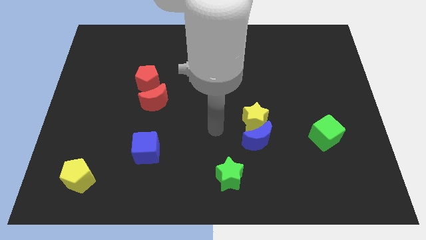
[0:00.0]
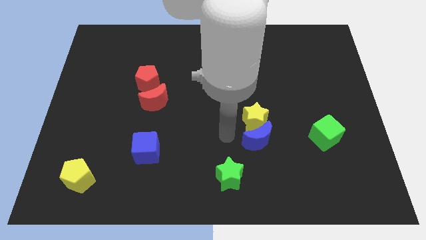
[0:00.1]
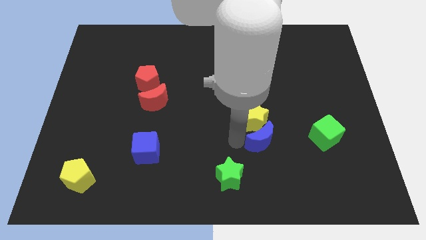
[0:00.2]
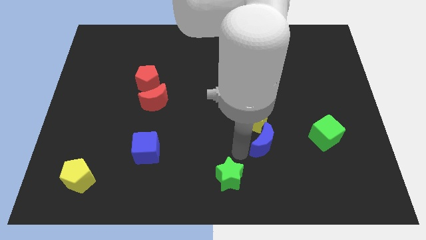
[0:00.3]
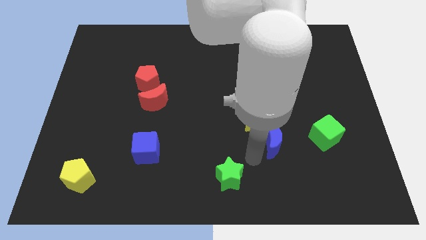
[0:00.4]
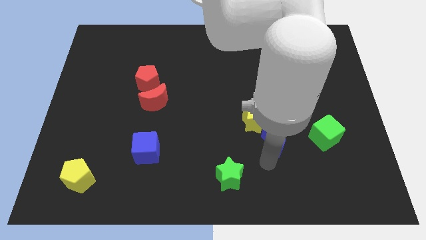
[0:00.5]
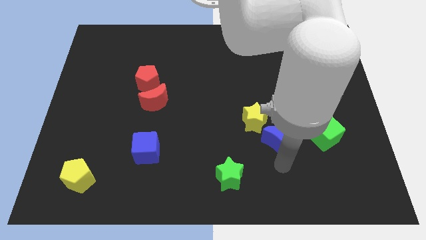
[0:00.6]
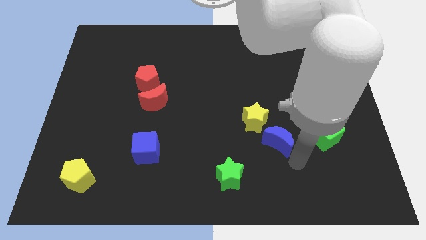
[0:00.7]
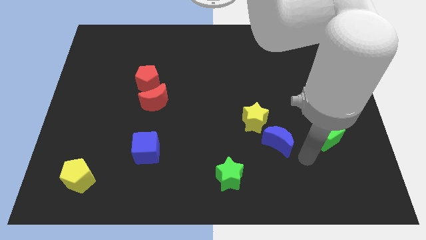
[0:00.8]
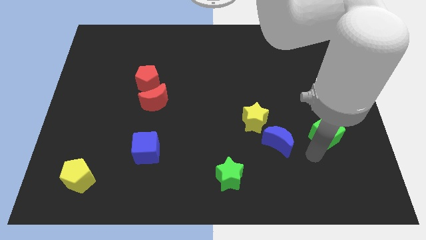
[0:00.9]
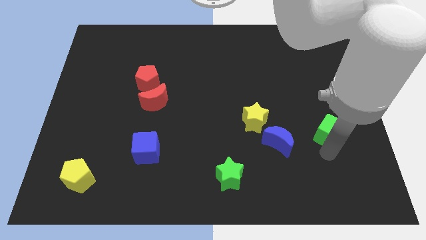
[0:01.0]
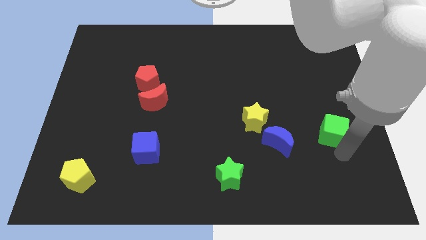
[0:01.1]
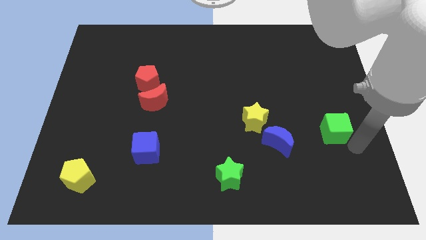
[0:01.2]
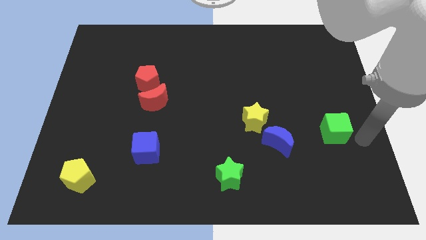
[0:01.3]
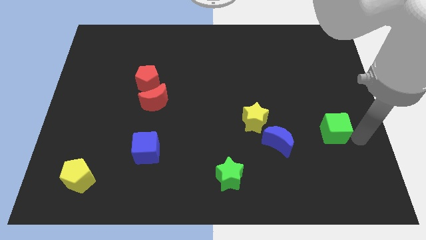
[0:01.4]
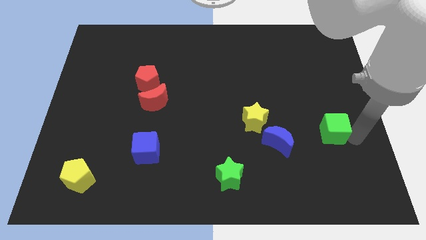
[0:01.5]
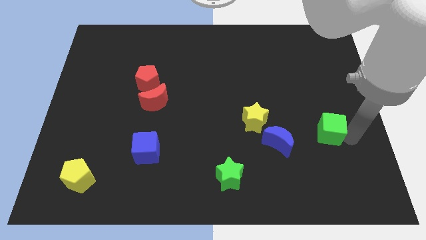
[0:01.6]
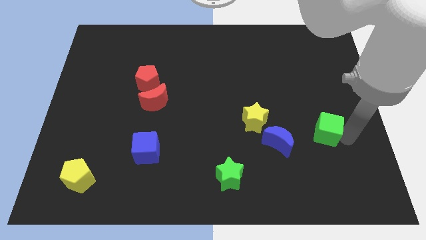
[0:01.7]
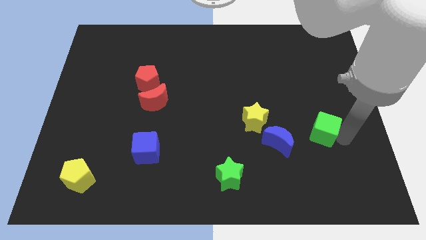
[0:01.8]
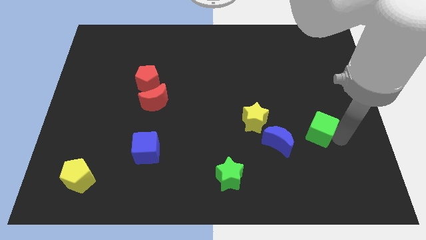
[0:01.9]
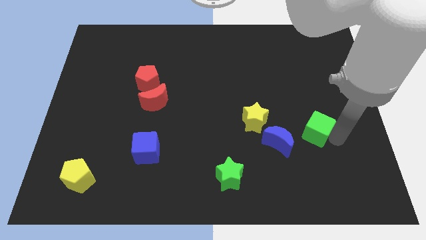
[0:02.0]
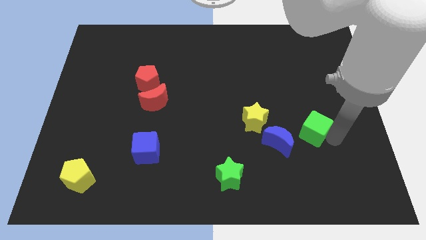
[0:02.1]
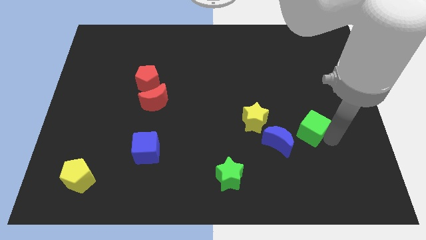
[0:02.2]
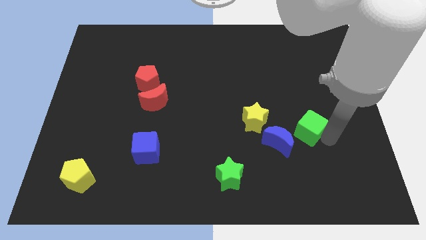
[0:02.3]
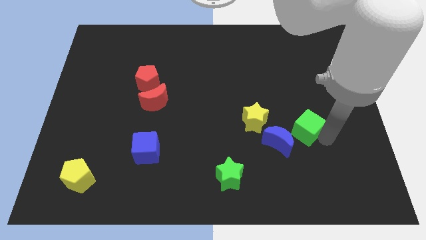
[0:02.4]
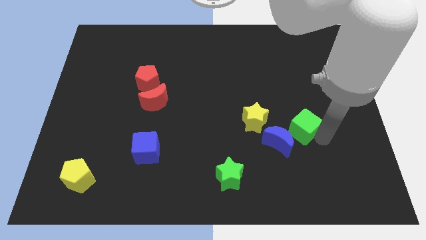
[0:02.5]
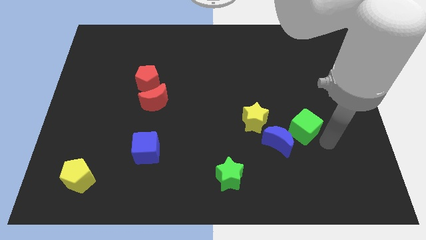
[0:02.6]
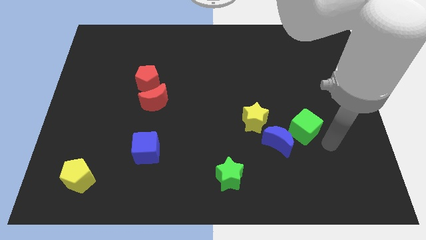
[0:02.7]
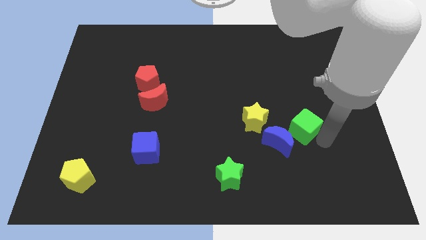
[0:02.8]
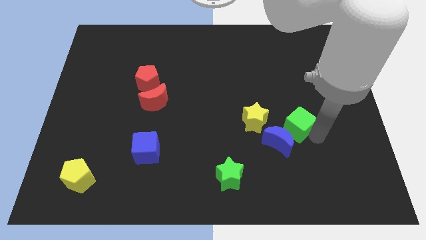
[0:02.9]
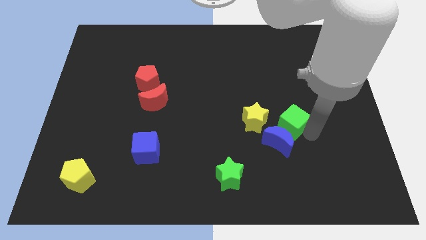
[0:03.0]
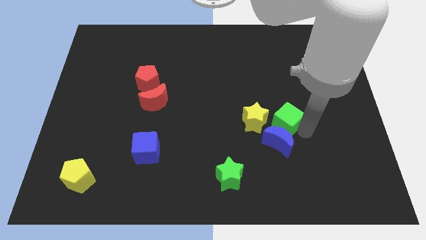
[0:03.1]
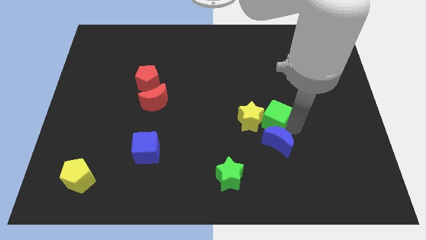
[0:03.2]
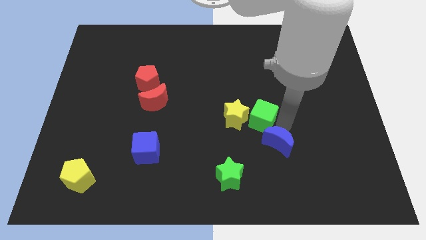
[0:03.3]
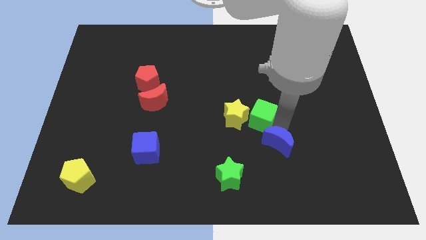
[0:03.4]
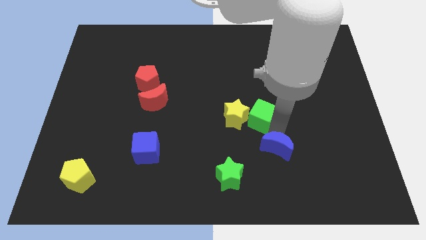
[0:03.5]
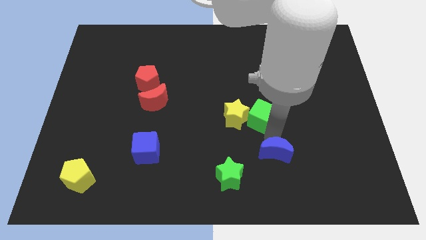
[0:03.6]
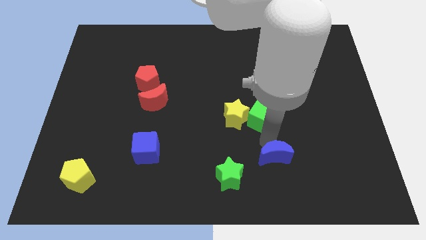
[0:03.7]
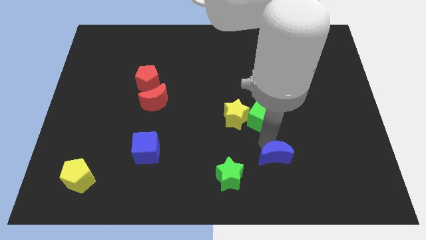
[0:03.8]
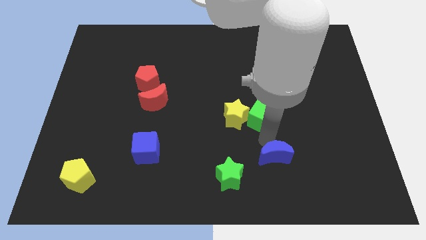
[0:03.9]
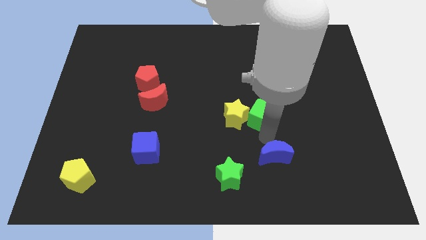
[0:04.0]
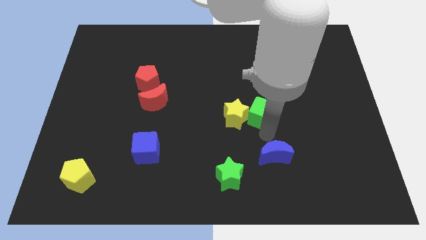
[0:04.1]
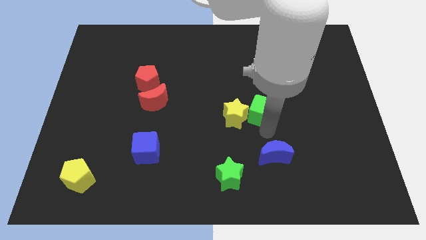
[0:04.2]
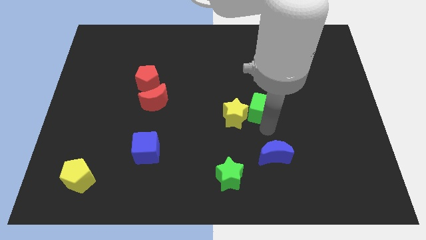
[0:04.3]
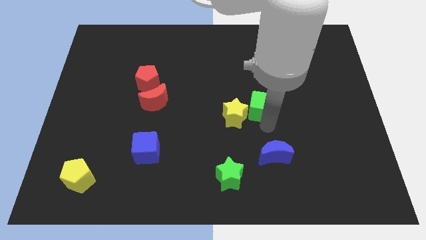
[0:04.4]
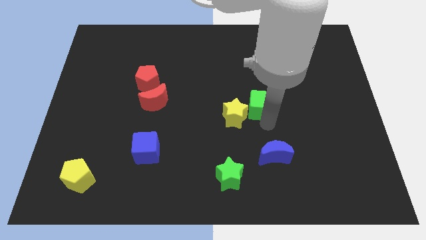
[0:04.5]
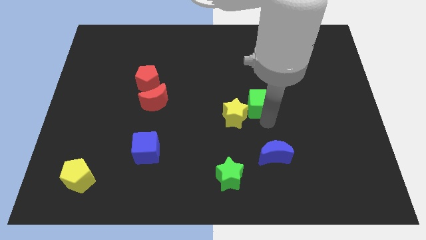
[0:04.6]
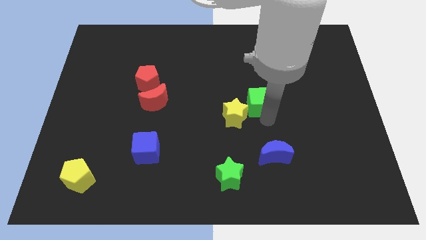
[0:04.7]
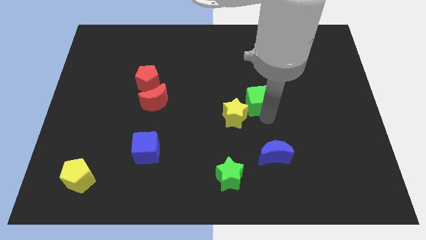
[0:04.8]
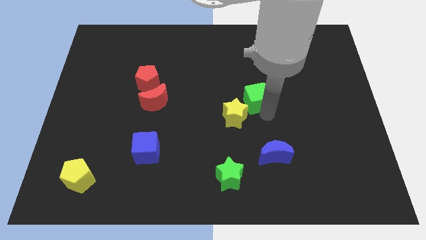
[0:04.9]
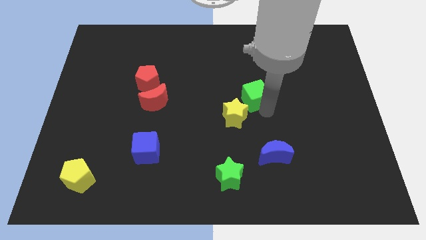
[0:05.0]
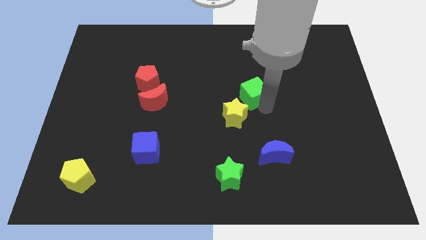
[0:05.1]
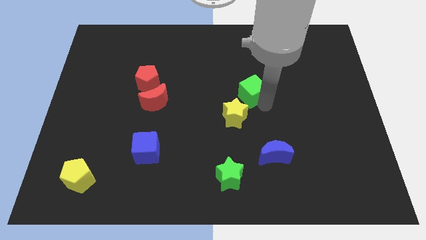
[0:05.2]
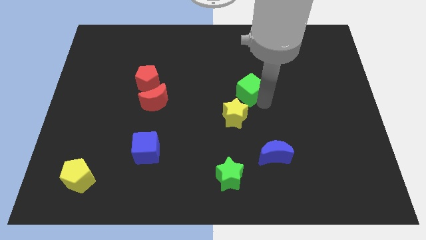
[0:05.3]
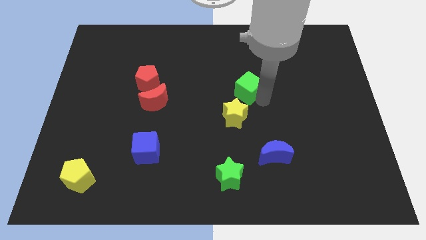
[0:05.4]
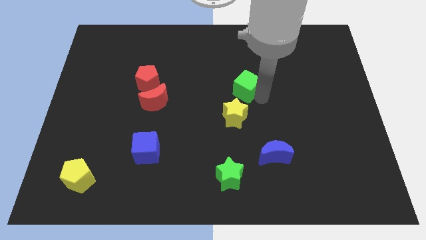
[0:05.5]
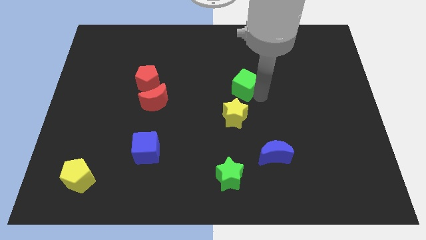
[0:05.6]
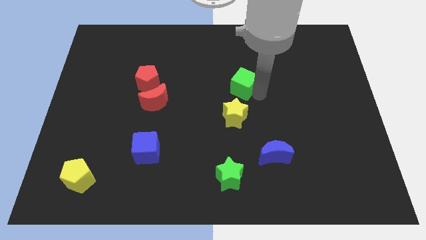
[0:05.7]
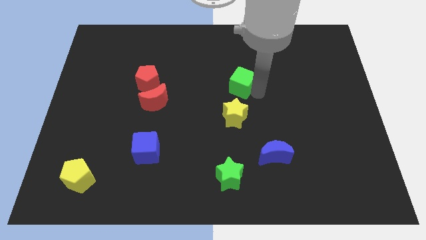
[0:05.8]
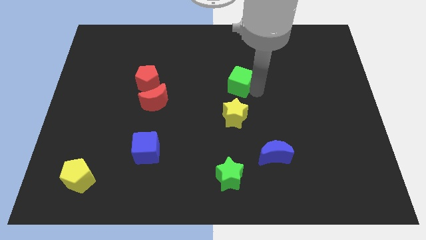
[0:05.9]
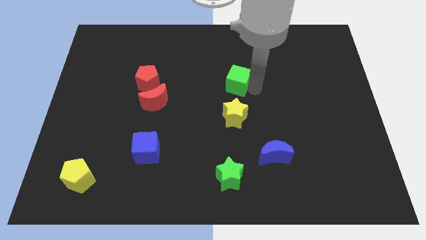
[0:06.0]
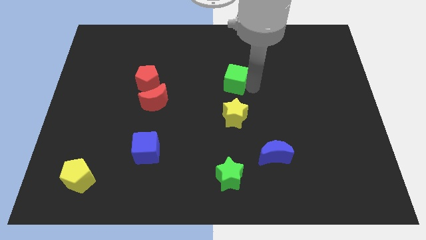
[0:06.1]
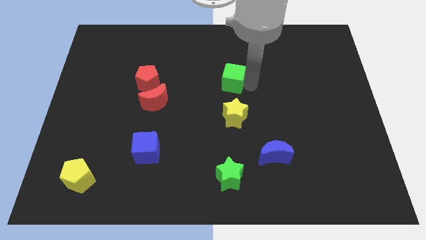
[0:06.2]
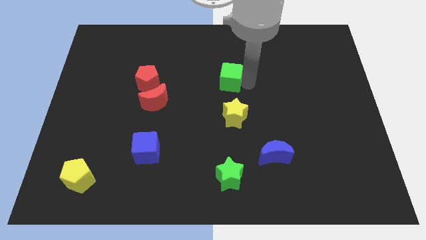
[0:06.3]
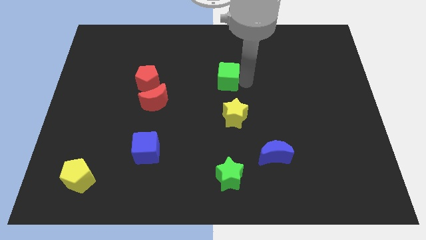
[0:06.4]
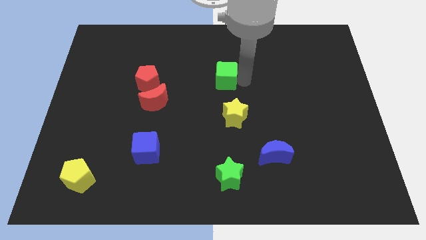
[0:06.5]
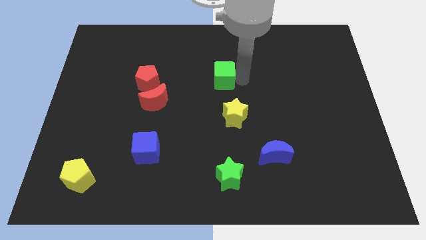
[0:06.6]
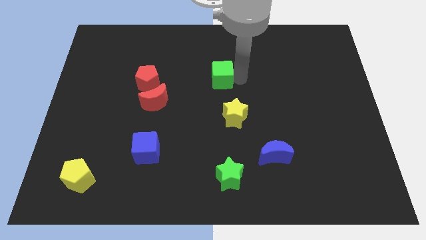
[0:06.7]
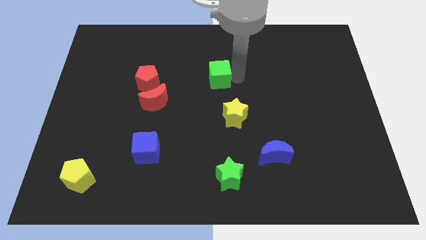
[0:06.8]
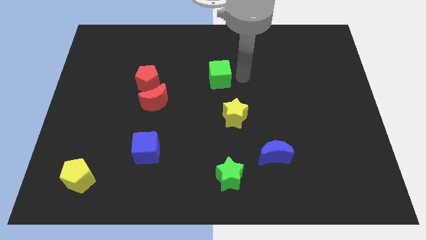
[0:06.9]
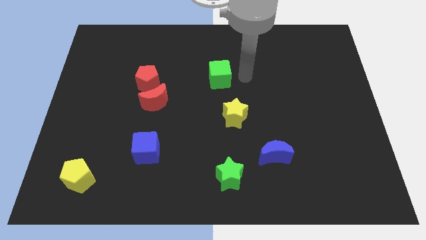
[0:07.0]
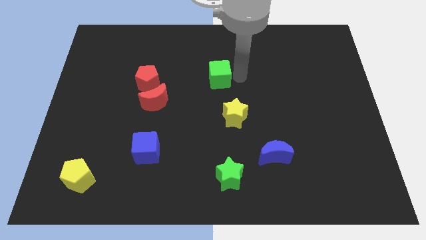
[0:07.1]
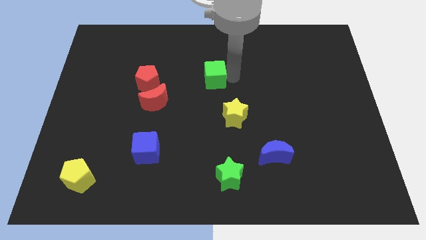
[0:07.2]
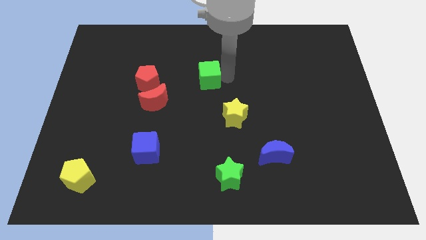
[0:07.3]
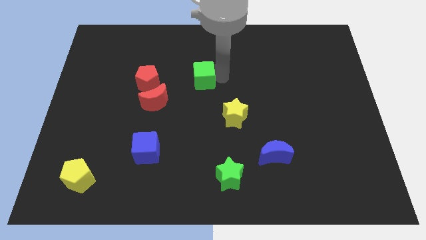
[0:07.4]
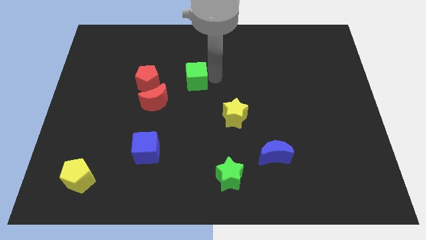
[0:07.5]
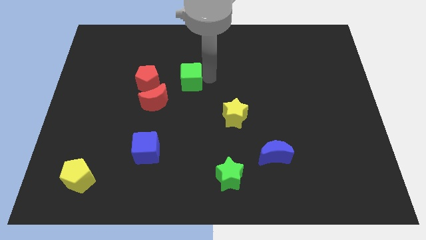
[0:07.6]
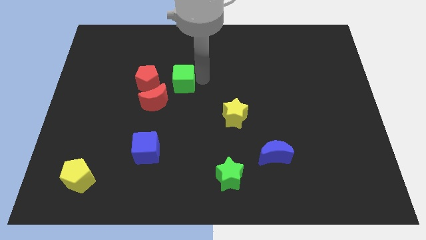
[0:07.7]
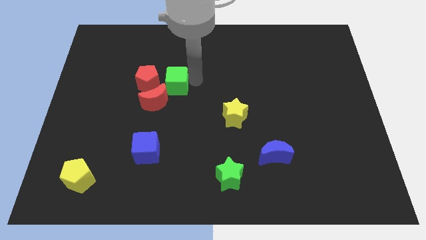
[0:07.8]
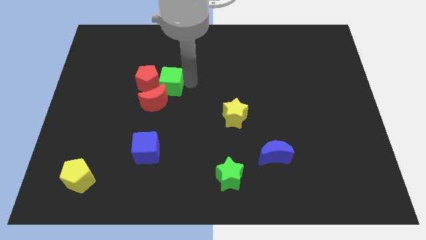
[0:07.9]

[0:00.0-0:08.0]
put the green cube to the red pentagon
